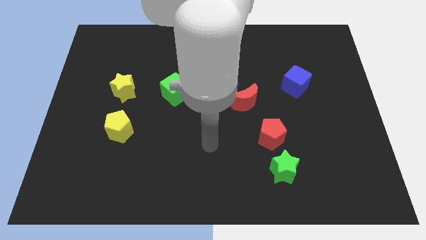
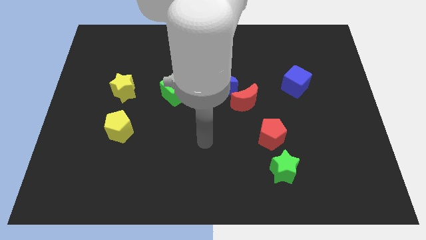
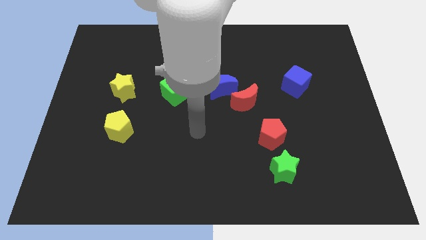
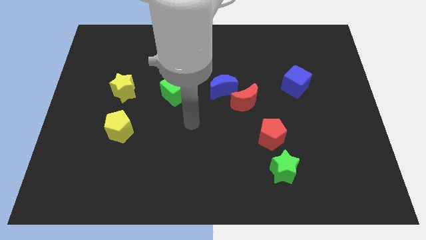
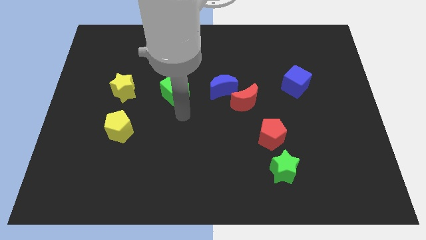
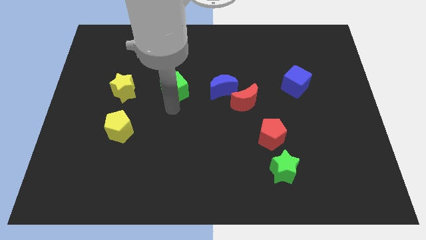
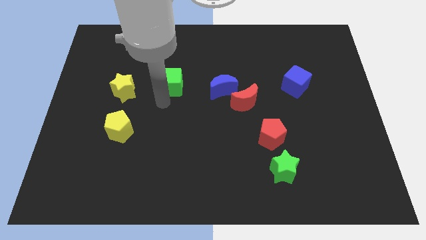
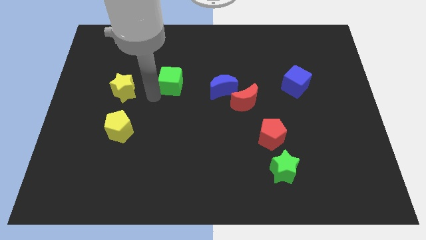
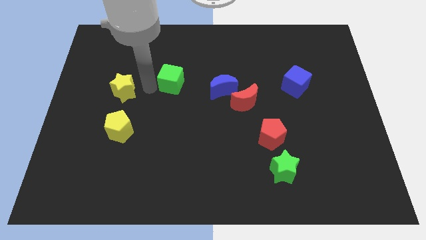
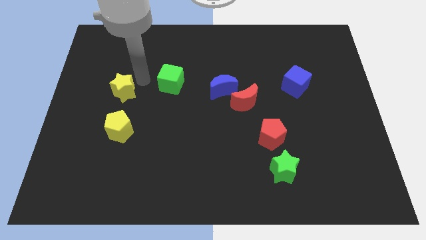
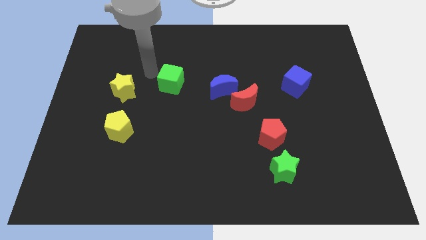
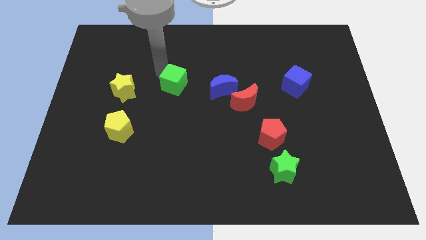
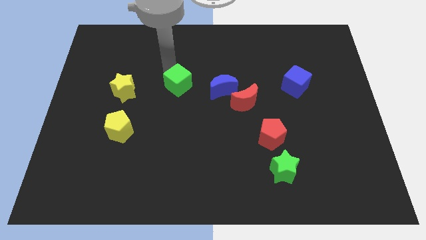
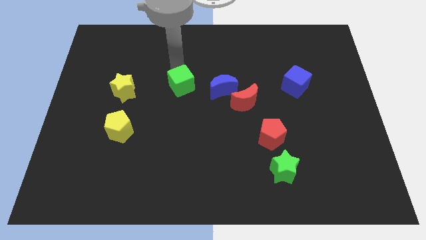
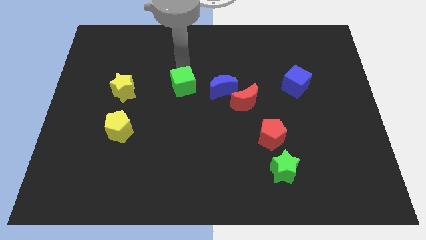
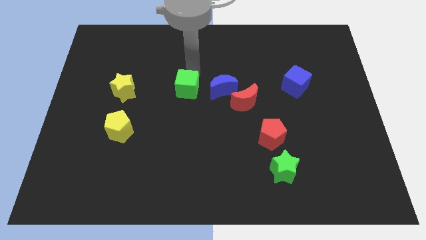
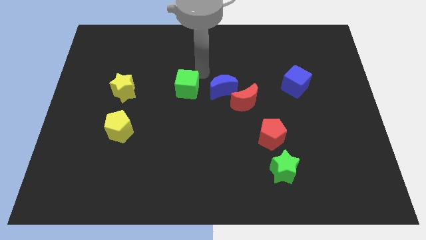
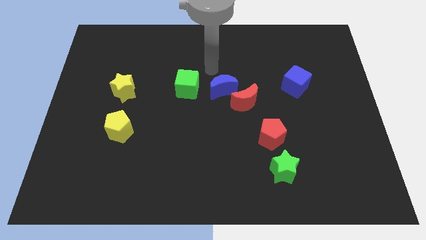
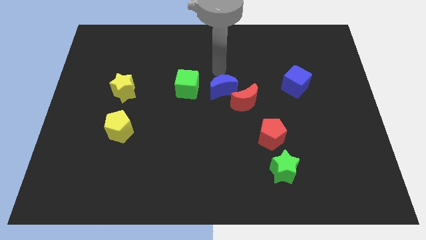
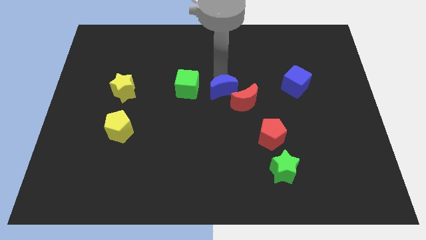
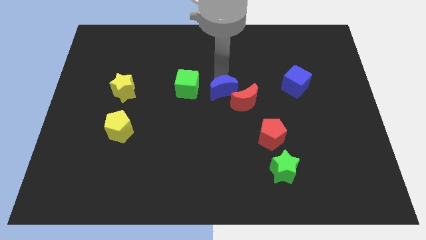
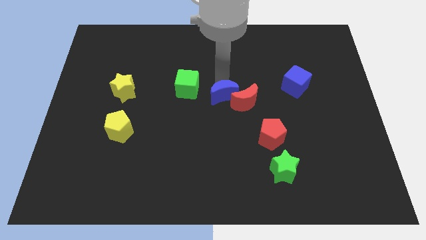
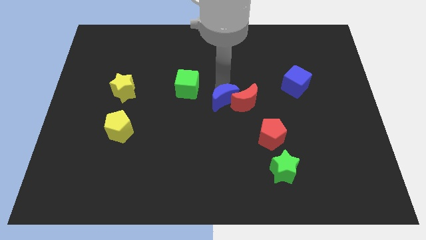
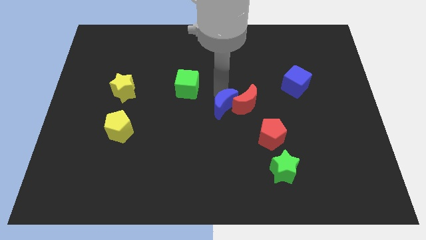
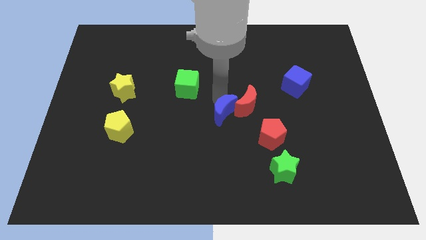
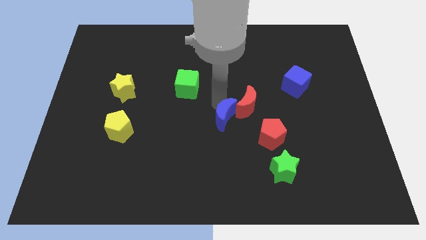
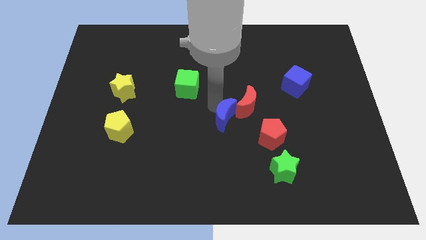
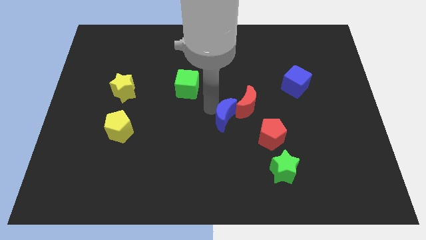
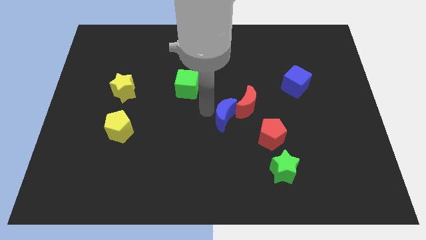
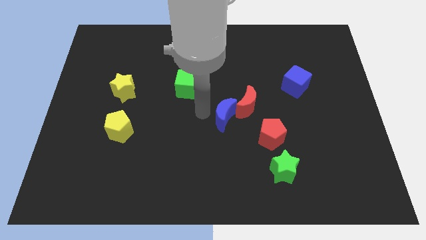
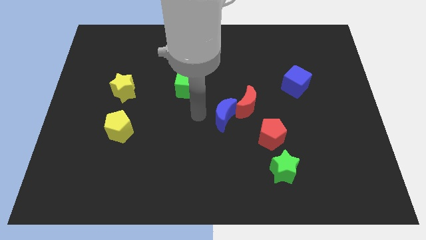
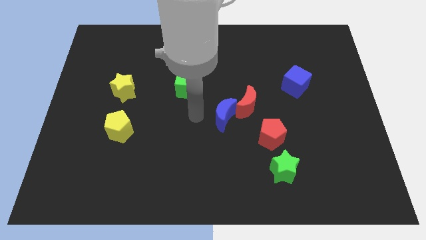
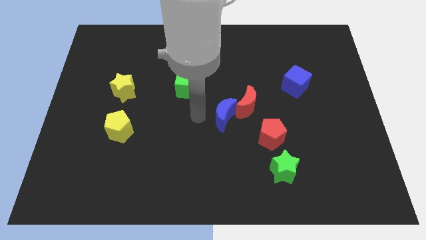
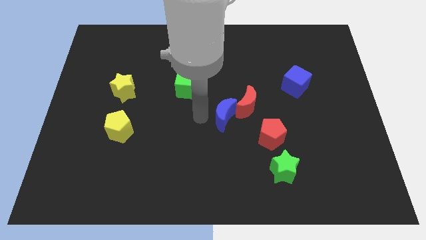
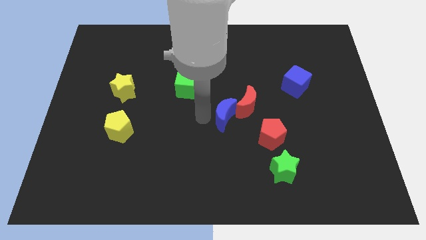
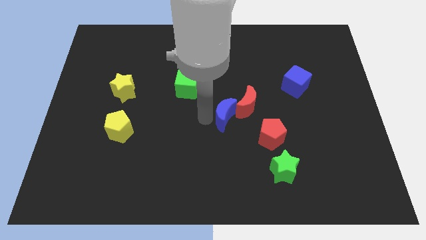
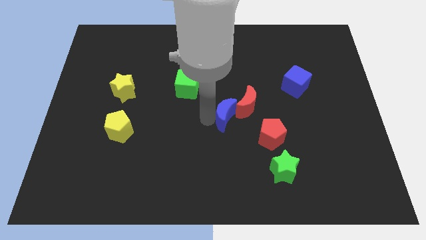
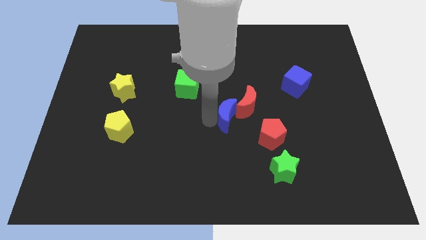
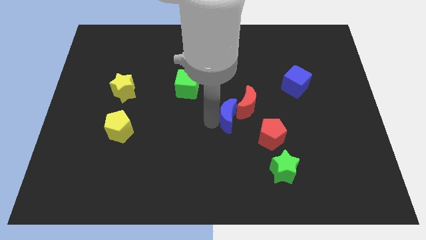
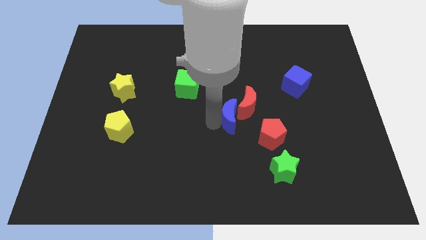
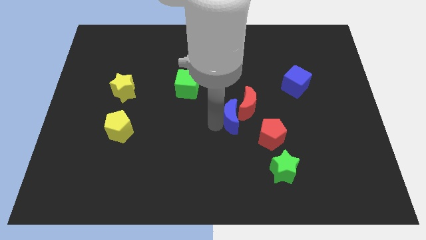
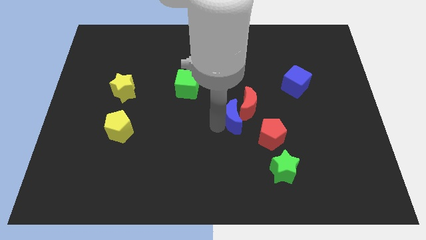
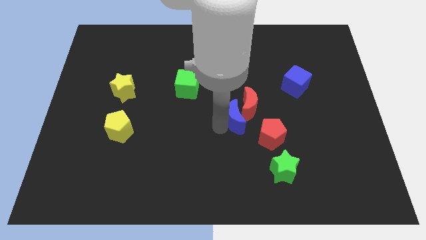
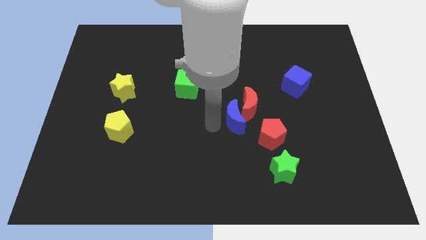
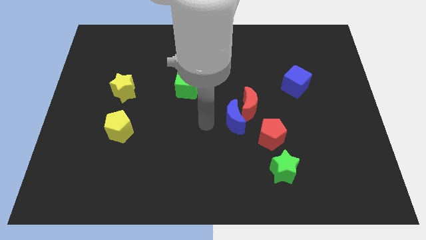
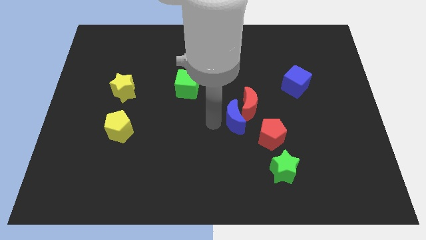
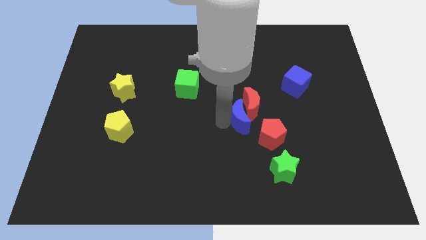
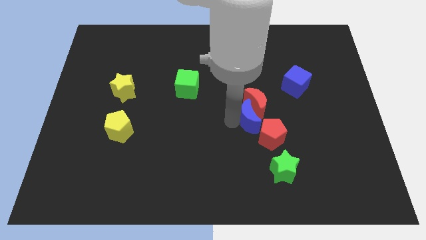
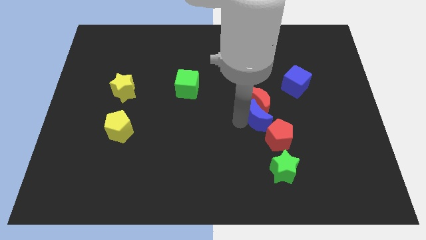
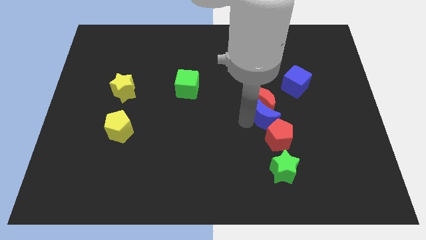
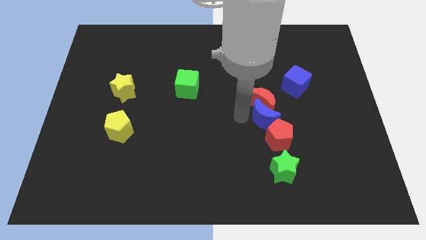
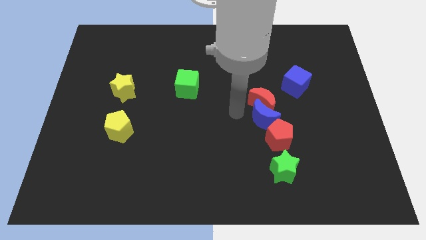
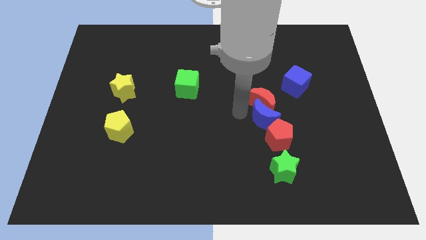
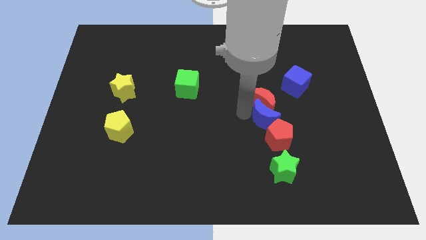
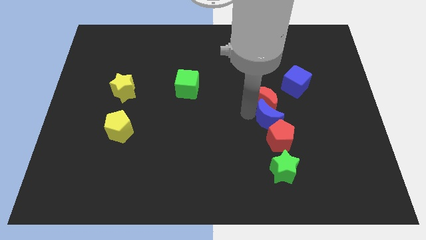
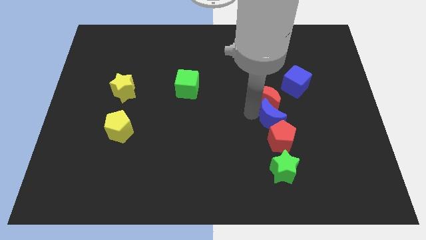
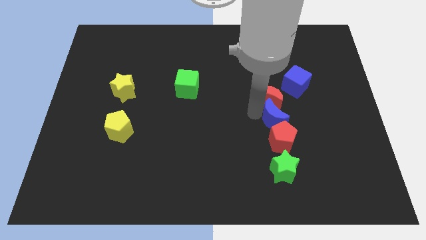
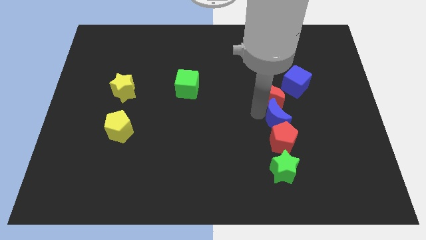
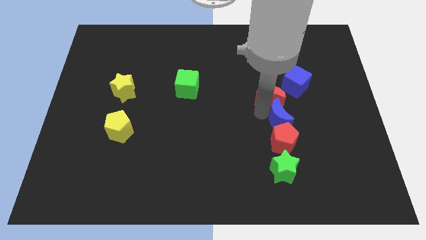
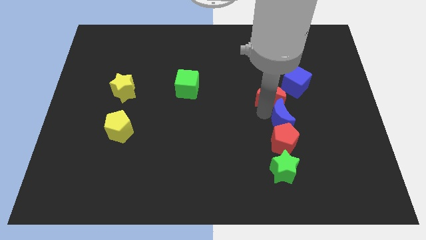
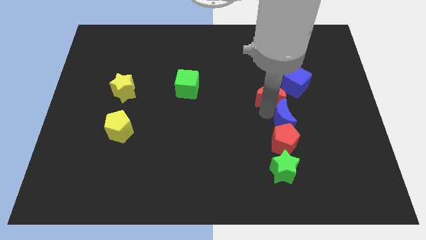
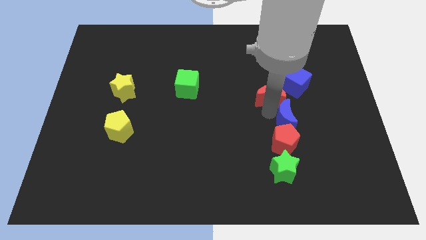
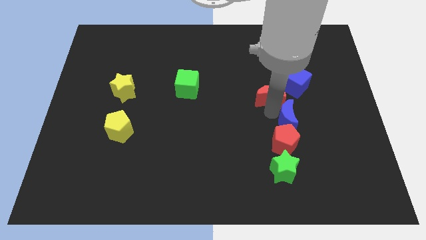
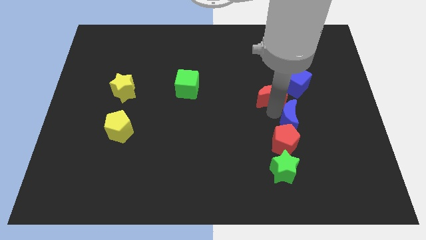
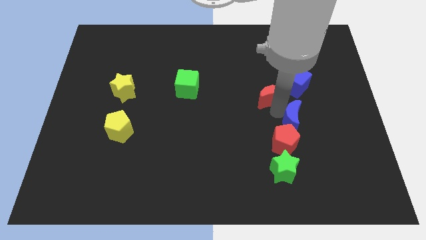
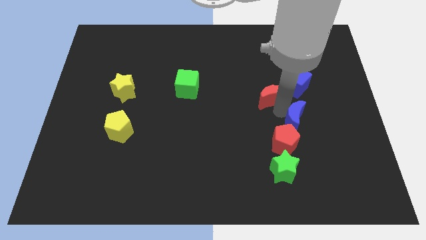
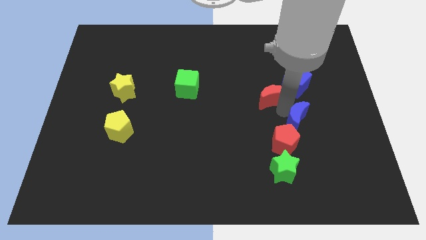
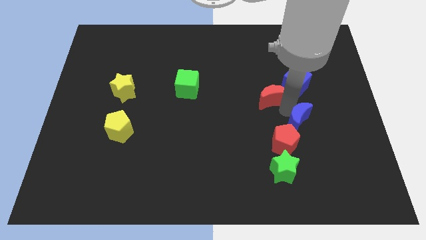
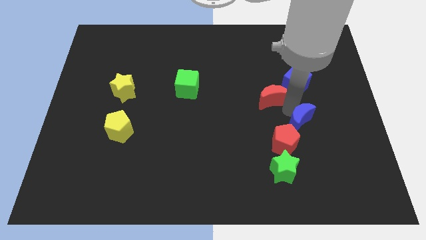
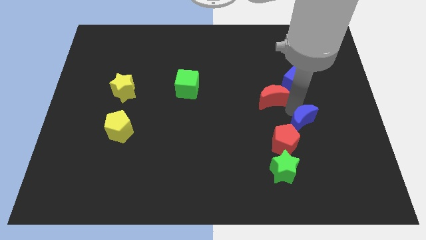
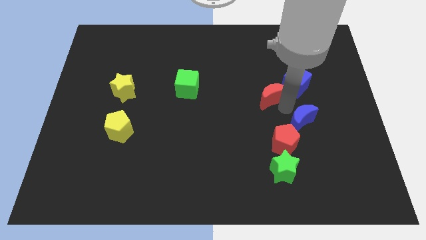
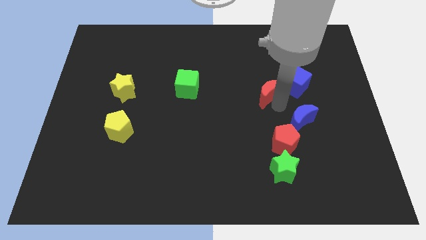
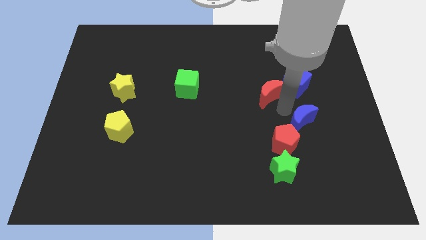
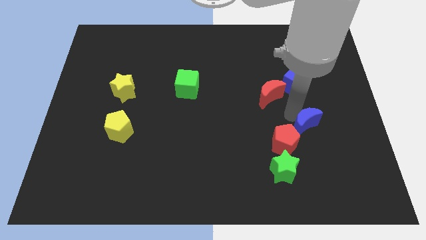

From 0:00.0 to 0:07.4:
move the blue moon to the right side of the red pentagon
